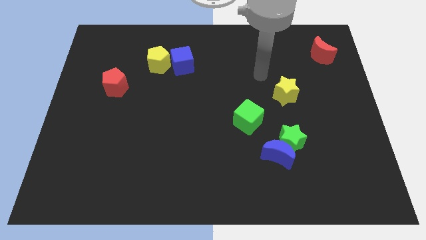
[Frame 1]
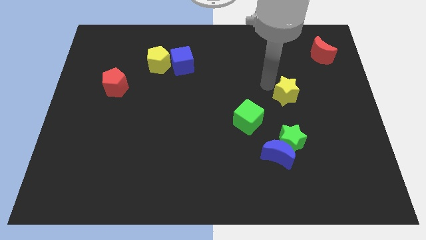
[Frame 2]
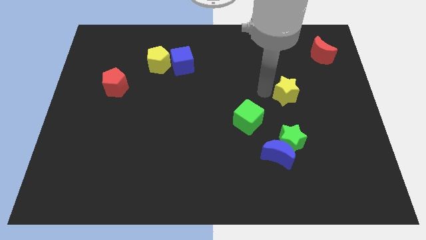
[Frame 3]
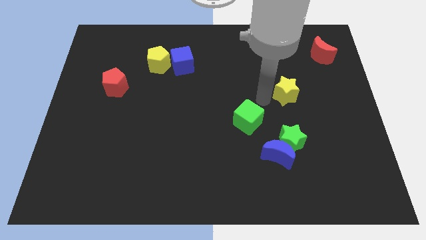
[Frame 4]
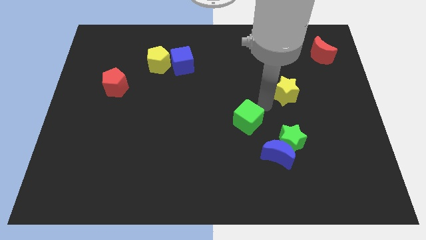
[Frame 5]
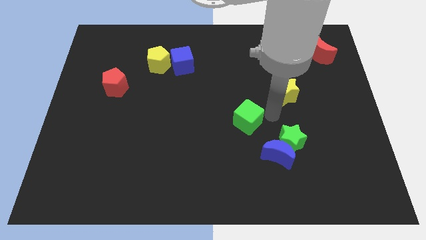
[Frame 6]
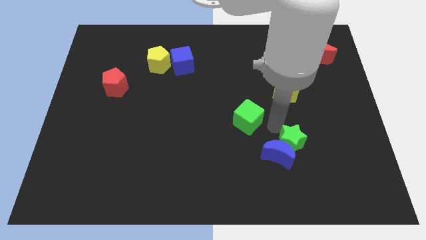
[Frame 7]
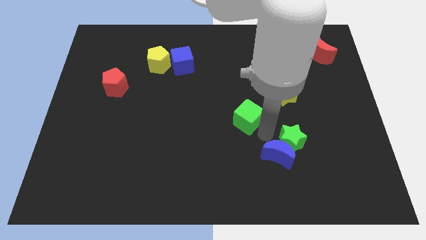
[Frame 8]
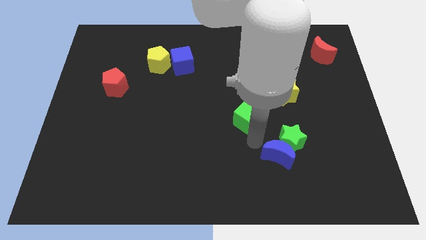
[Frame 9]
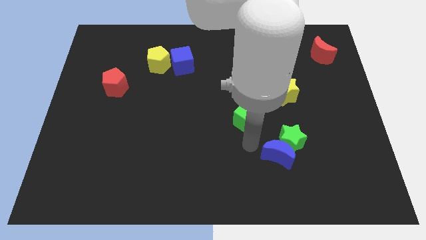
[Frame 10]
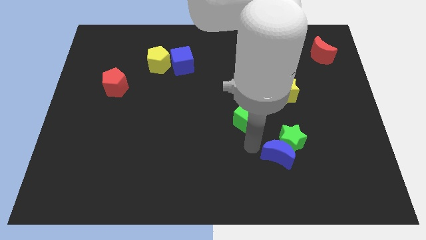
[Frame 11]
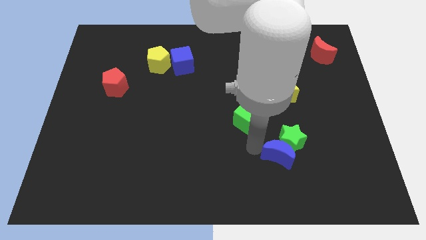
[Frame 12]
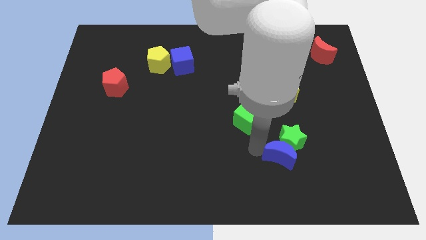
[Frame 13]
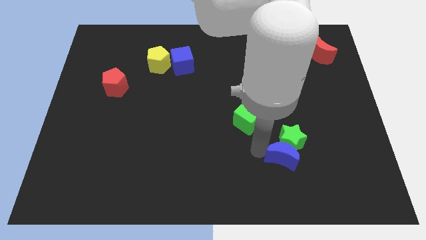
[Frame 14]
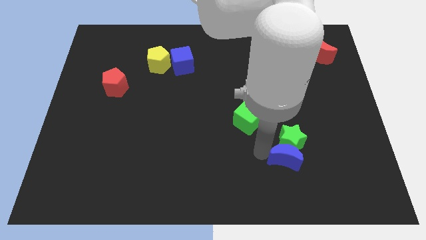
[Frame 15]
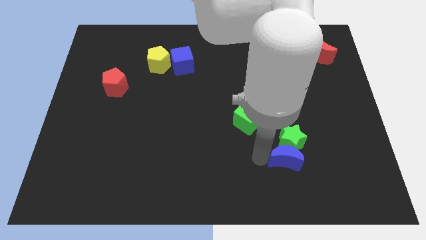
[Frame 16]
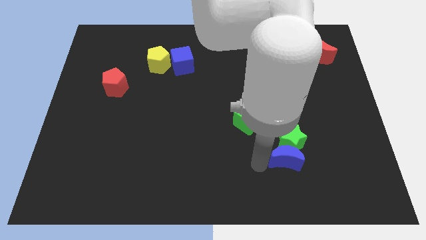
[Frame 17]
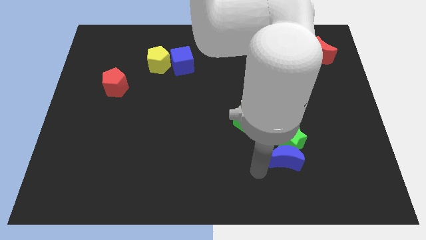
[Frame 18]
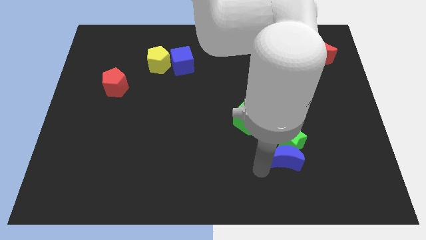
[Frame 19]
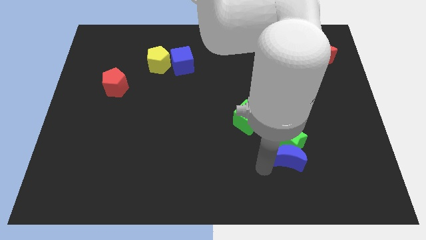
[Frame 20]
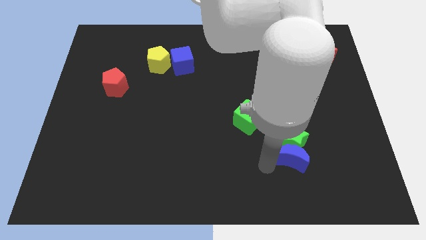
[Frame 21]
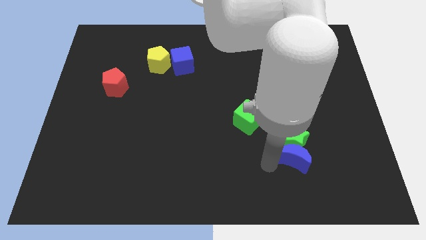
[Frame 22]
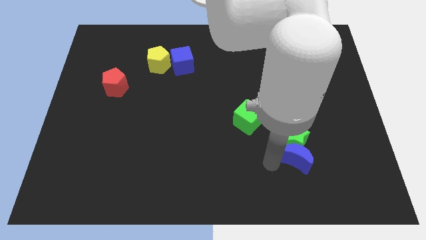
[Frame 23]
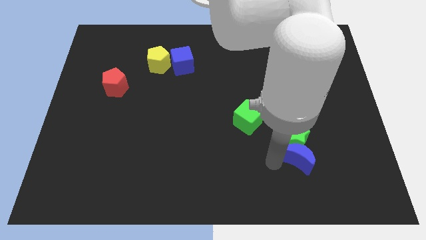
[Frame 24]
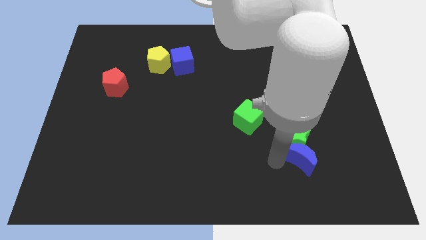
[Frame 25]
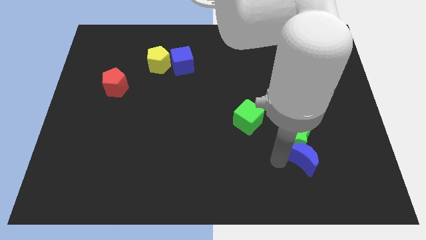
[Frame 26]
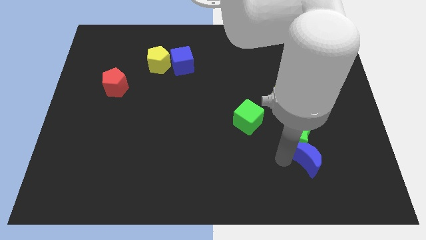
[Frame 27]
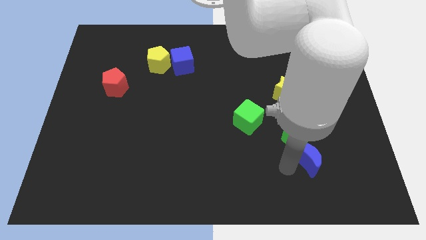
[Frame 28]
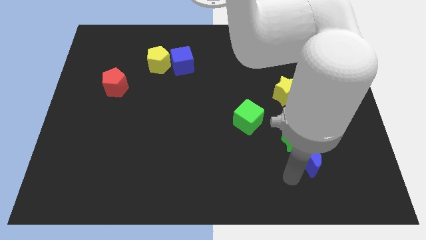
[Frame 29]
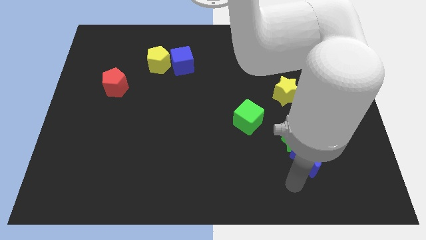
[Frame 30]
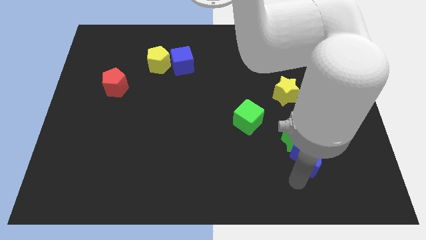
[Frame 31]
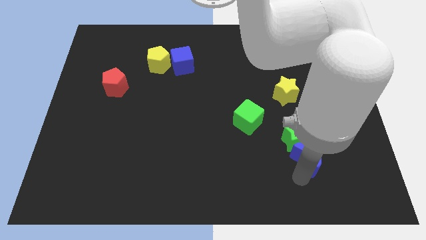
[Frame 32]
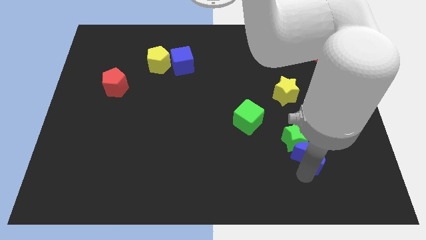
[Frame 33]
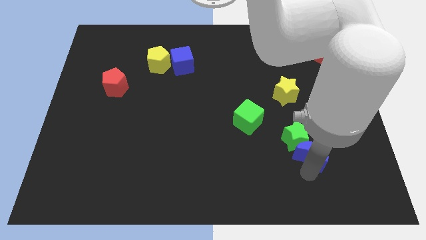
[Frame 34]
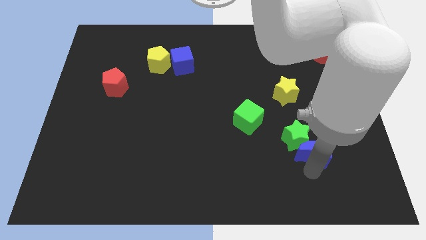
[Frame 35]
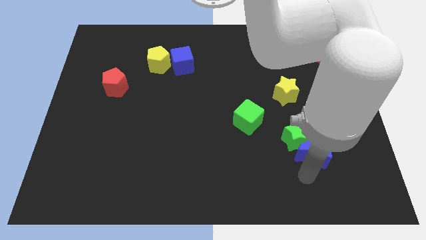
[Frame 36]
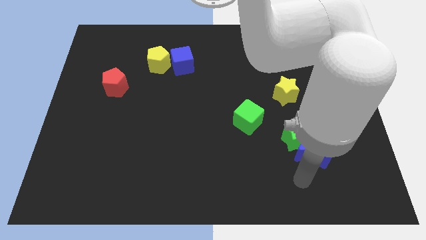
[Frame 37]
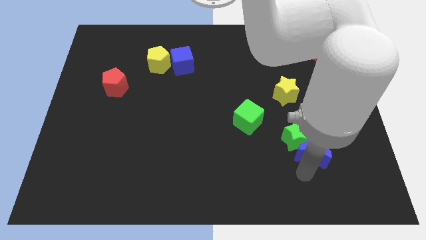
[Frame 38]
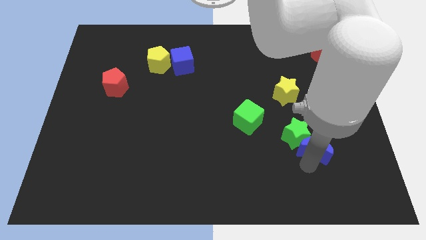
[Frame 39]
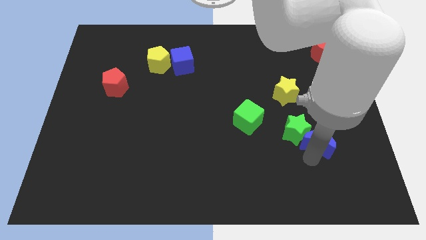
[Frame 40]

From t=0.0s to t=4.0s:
slightly push the blue moon up and then to the right

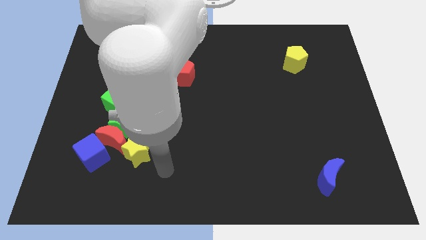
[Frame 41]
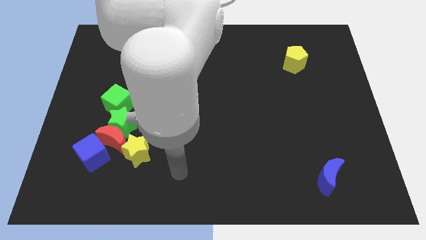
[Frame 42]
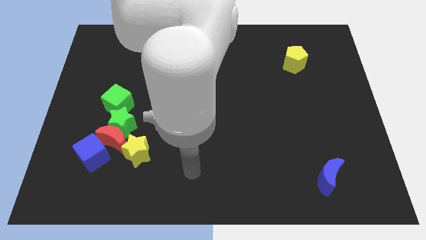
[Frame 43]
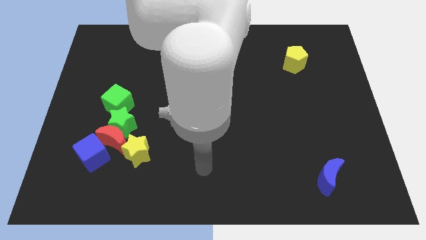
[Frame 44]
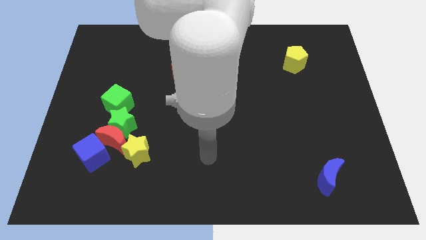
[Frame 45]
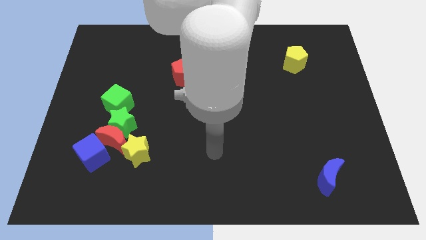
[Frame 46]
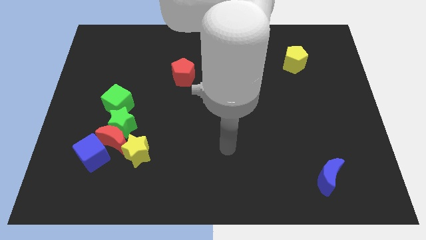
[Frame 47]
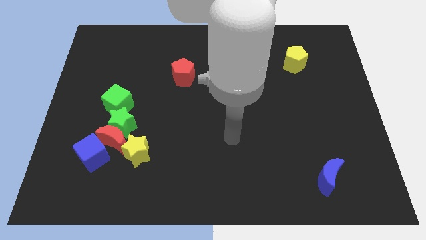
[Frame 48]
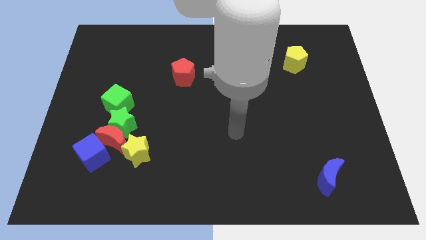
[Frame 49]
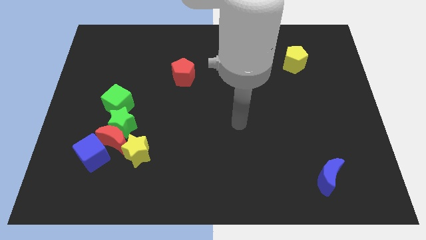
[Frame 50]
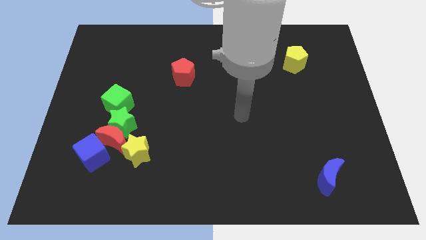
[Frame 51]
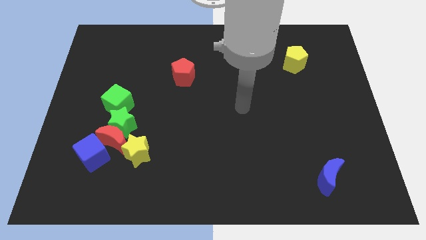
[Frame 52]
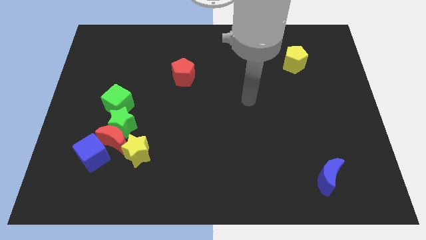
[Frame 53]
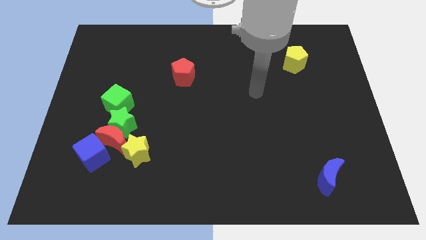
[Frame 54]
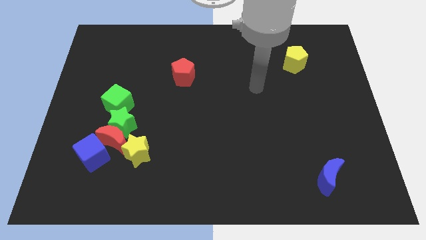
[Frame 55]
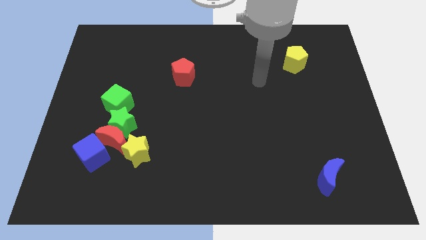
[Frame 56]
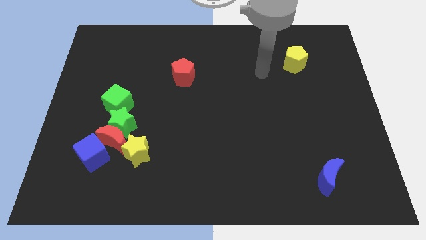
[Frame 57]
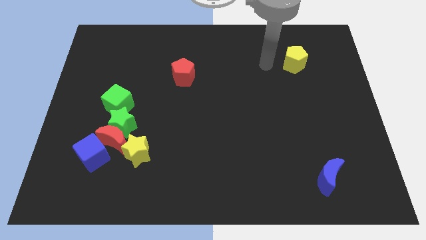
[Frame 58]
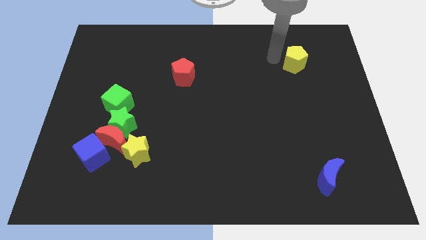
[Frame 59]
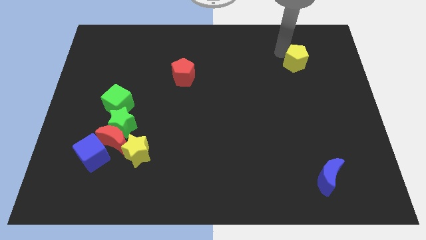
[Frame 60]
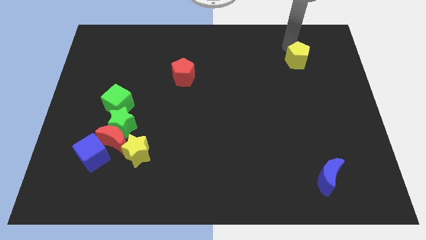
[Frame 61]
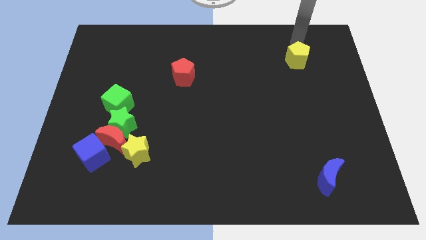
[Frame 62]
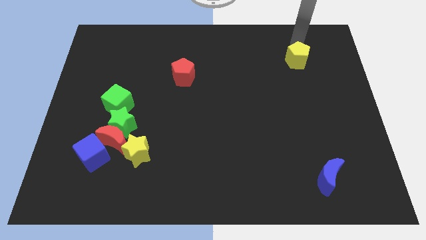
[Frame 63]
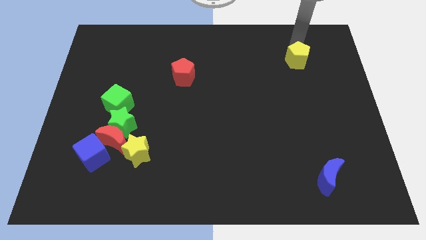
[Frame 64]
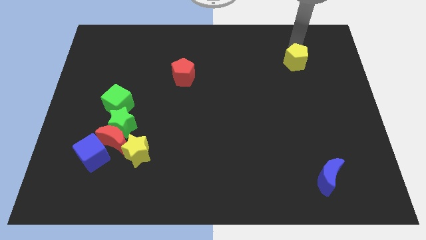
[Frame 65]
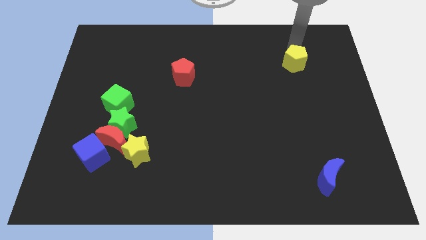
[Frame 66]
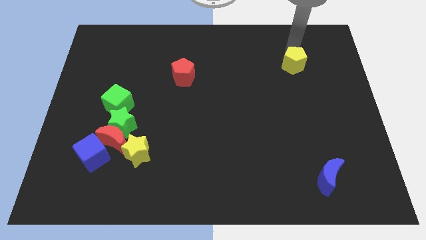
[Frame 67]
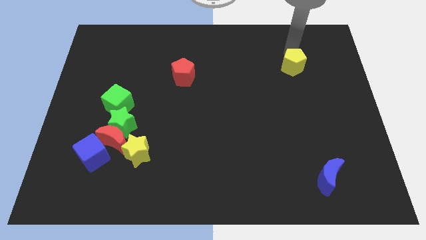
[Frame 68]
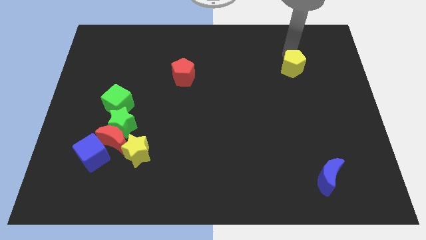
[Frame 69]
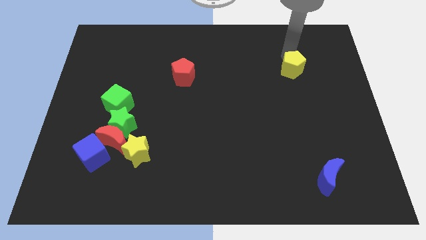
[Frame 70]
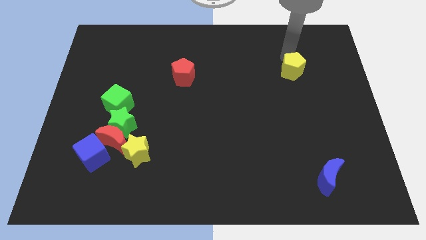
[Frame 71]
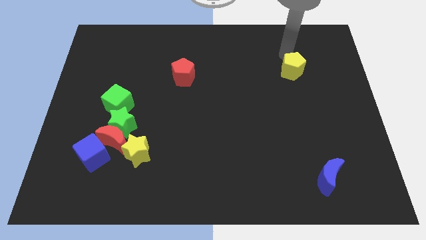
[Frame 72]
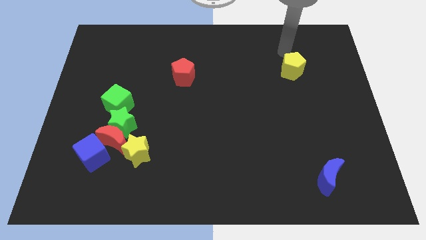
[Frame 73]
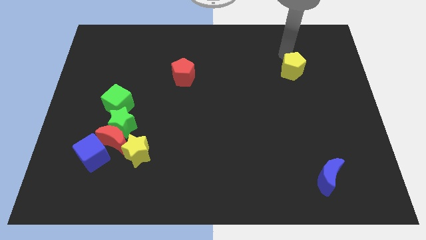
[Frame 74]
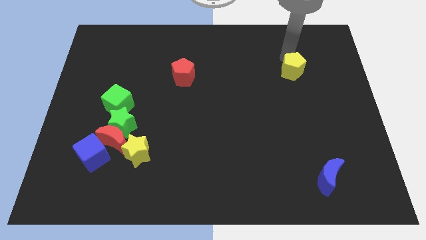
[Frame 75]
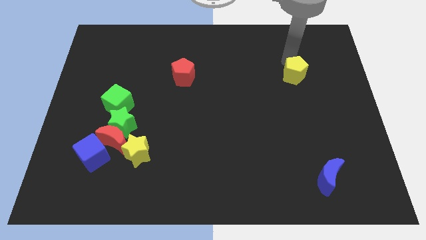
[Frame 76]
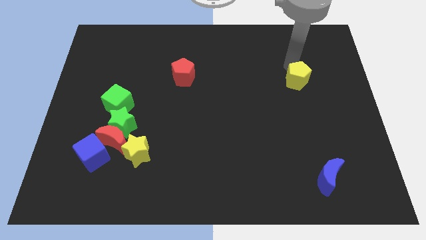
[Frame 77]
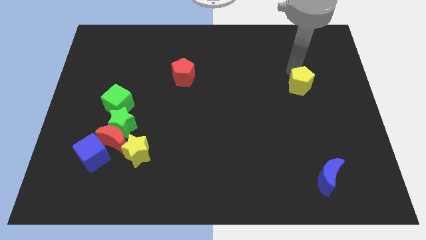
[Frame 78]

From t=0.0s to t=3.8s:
slide the yellow pentagon down a little
